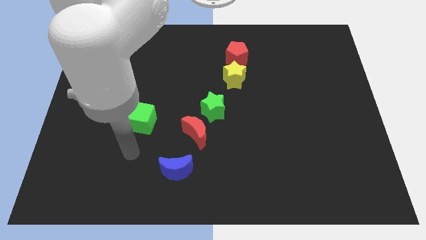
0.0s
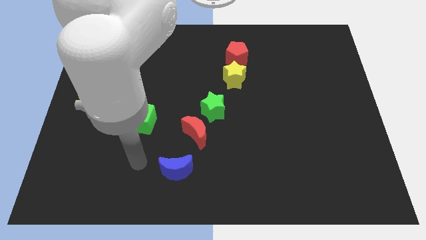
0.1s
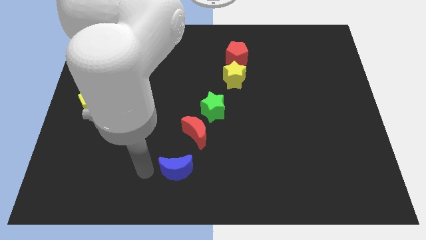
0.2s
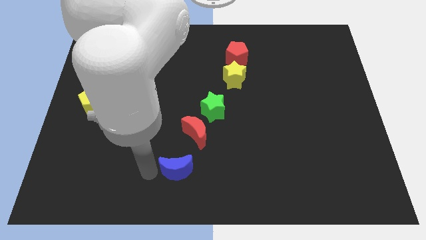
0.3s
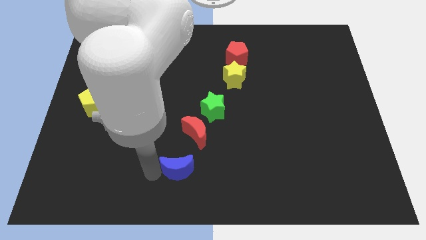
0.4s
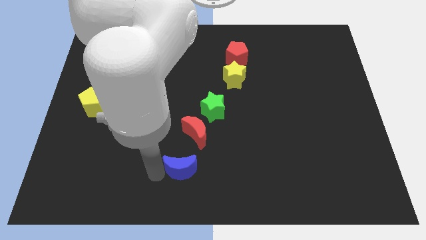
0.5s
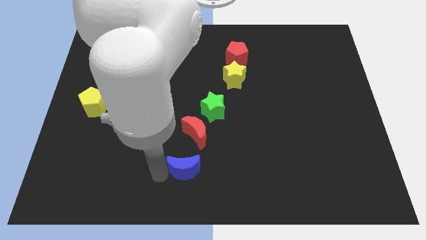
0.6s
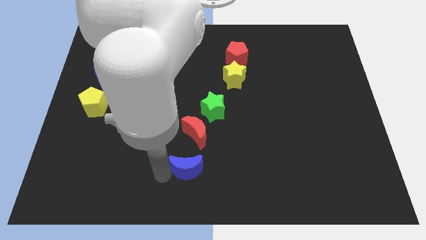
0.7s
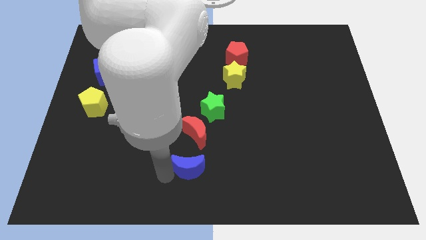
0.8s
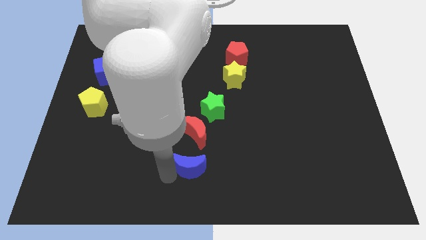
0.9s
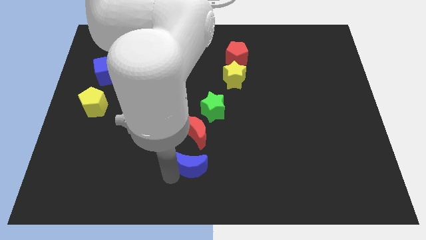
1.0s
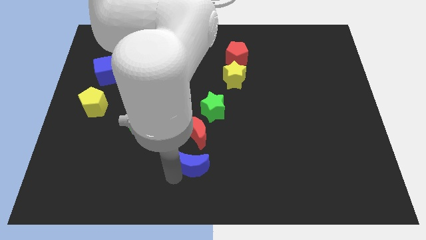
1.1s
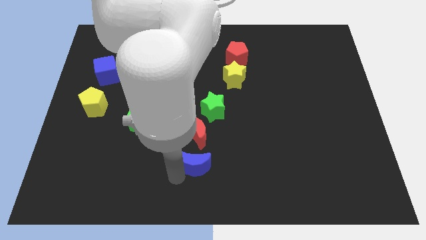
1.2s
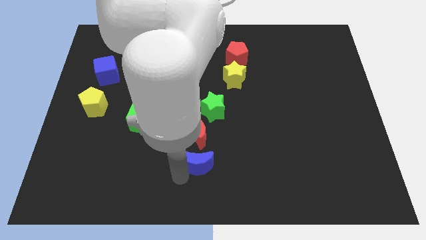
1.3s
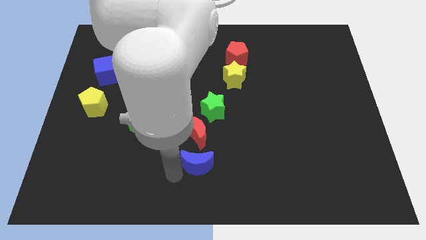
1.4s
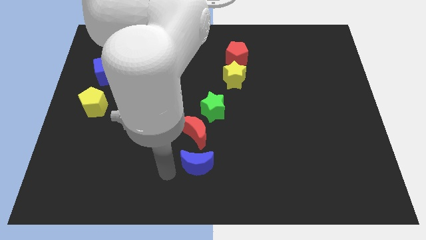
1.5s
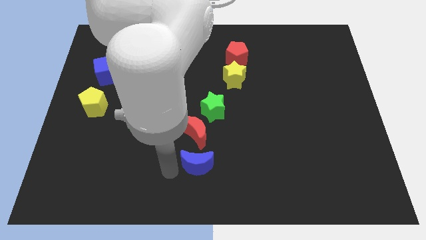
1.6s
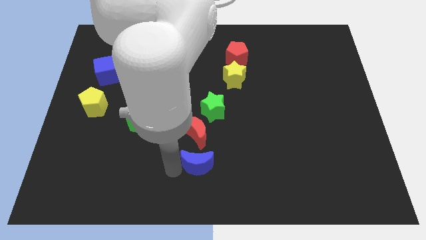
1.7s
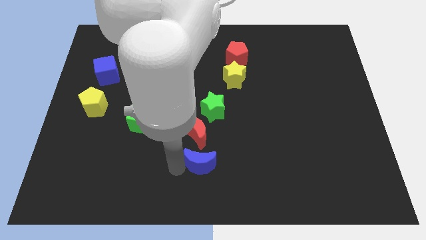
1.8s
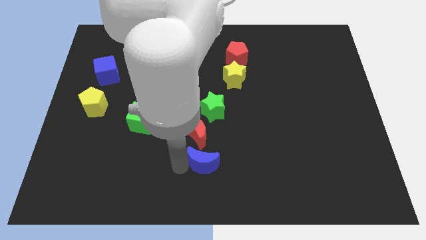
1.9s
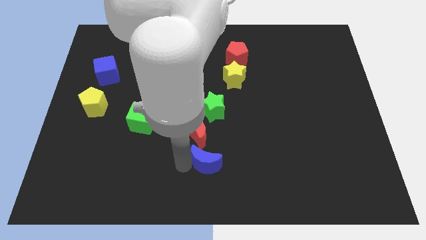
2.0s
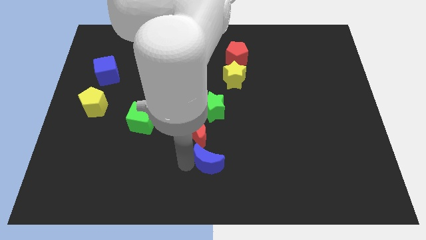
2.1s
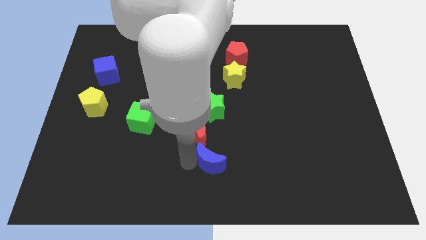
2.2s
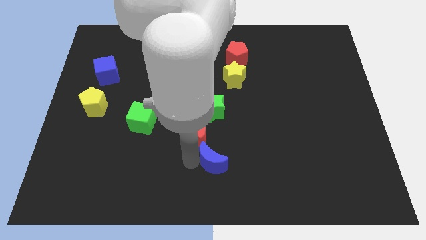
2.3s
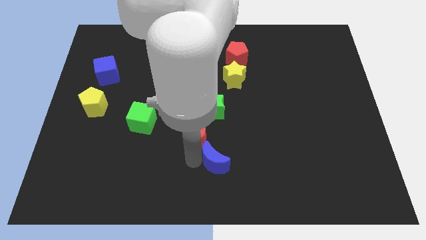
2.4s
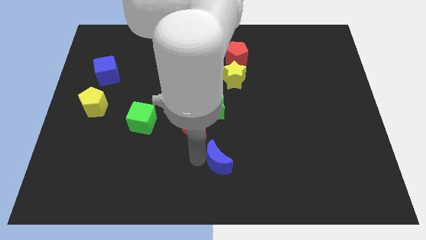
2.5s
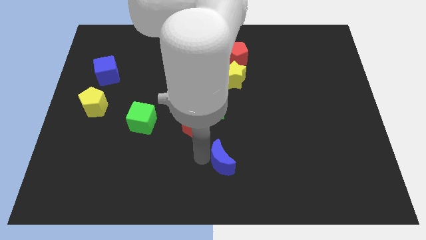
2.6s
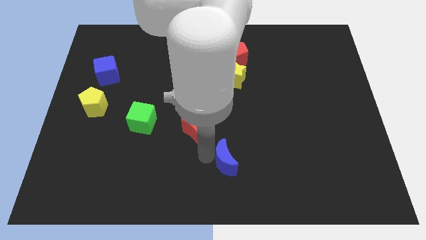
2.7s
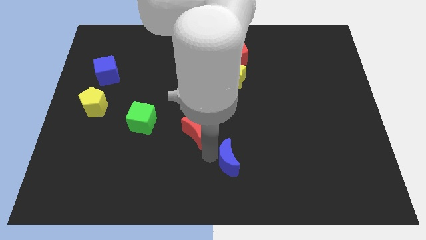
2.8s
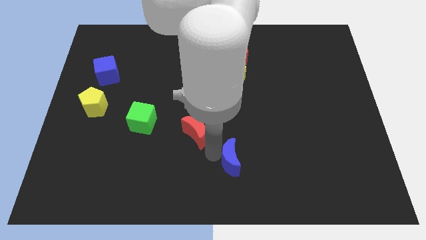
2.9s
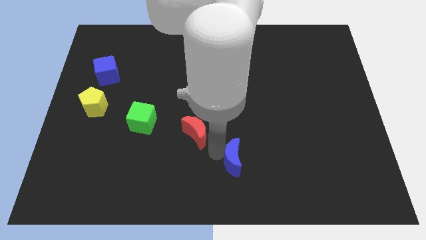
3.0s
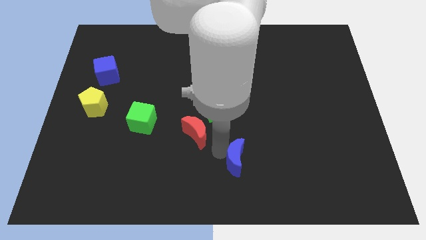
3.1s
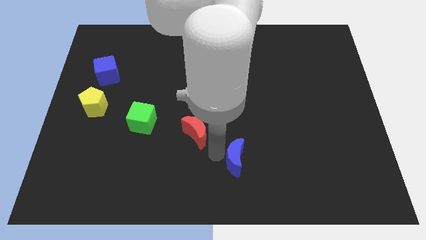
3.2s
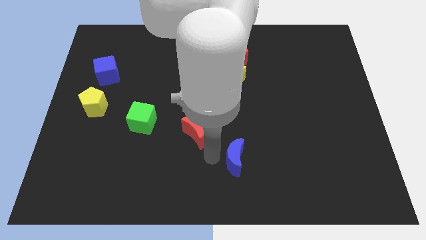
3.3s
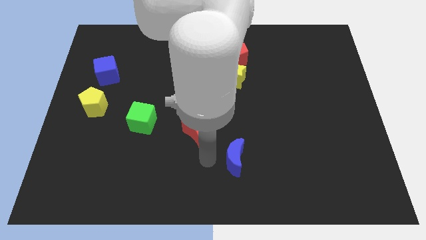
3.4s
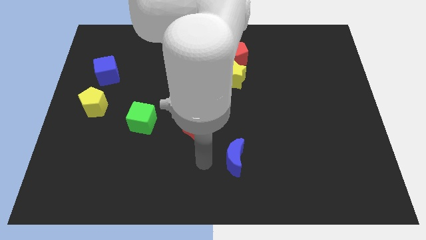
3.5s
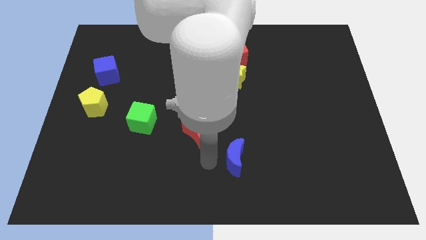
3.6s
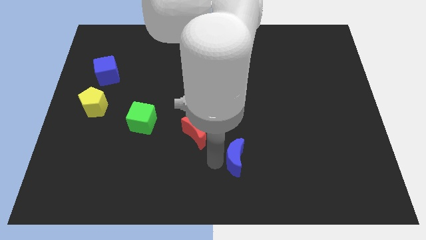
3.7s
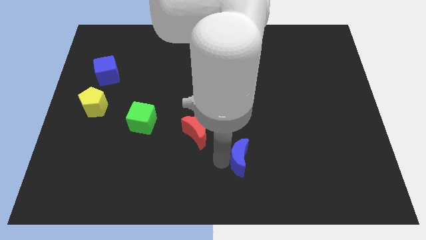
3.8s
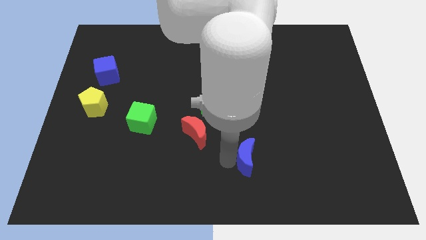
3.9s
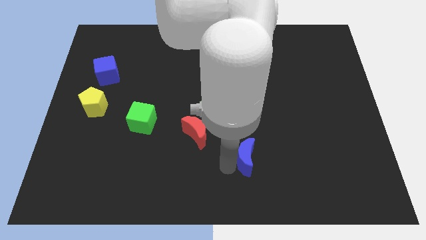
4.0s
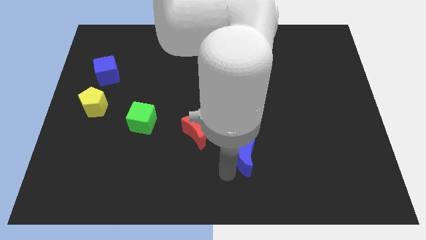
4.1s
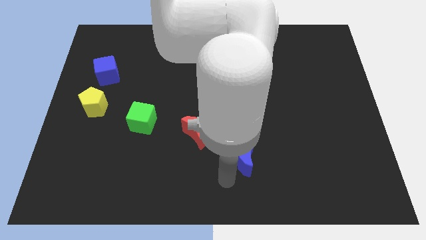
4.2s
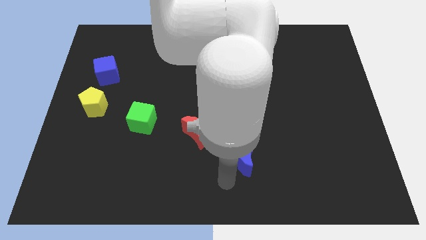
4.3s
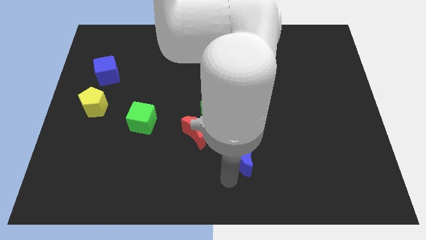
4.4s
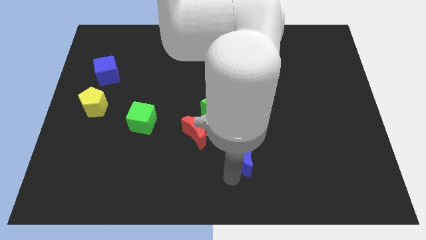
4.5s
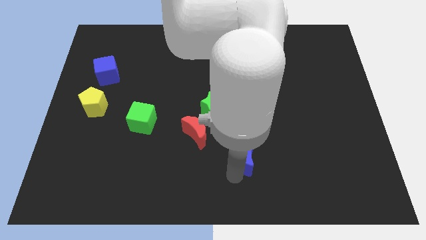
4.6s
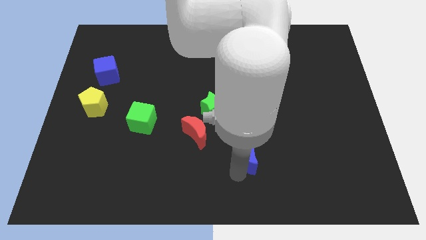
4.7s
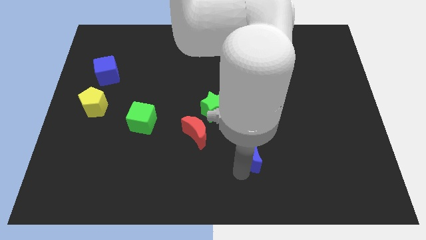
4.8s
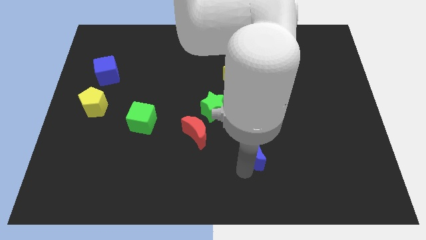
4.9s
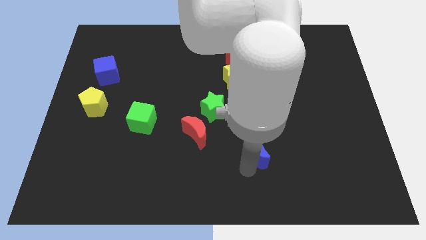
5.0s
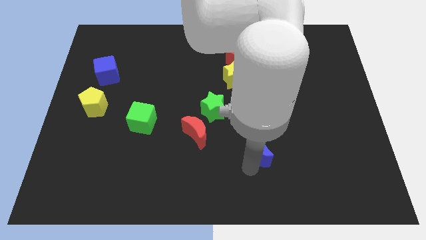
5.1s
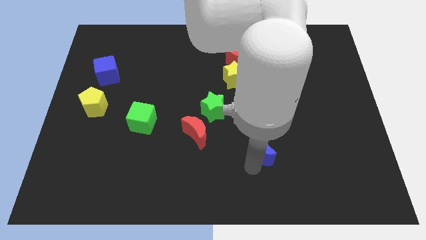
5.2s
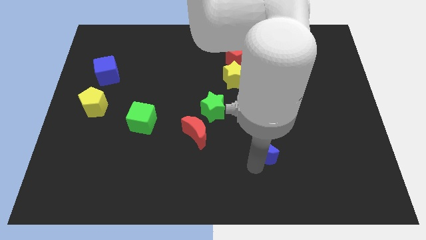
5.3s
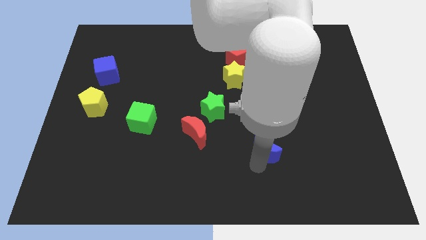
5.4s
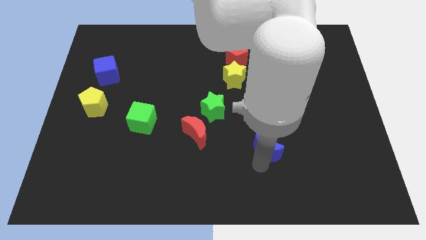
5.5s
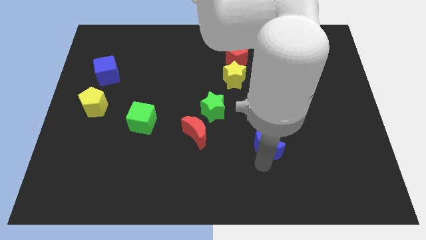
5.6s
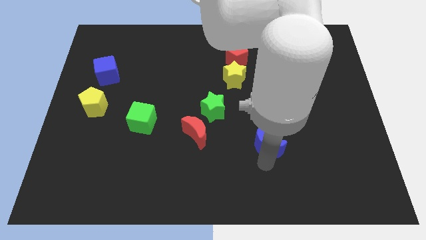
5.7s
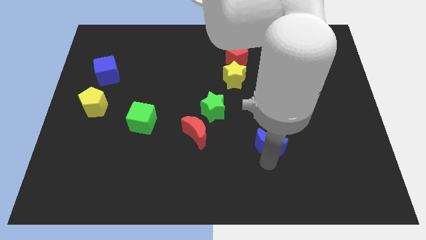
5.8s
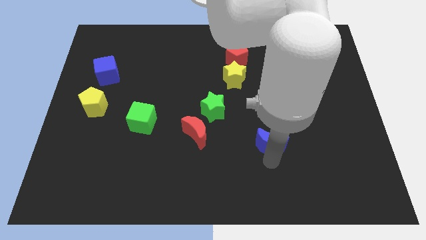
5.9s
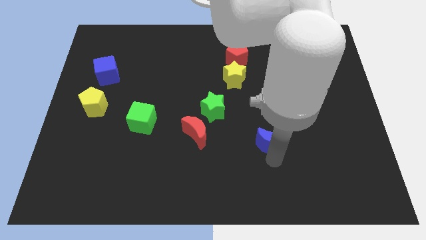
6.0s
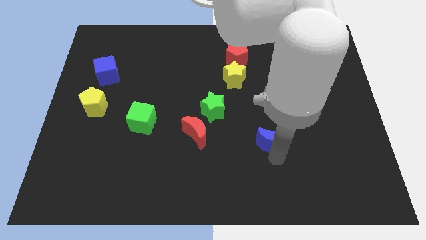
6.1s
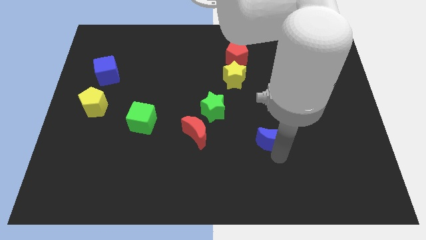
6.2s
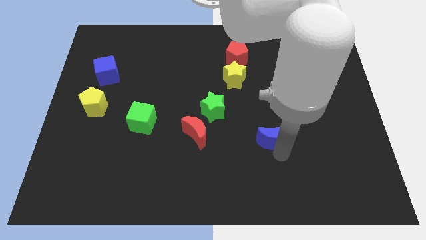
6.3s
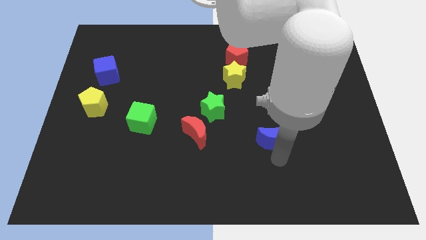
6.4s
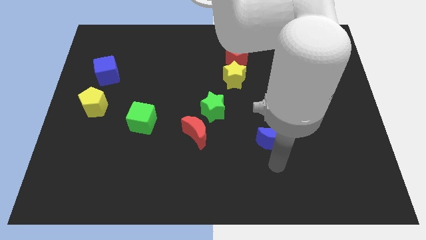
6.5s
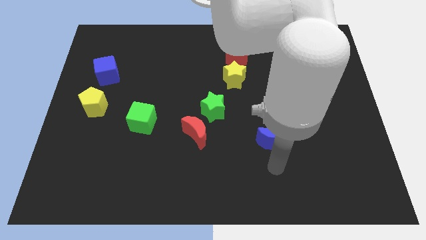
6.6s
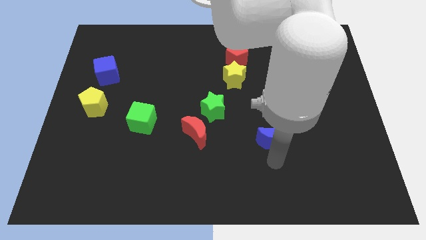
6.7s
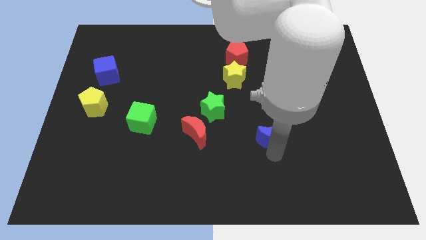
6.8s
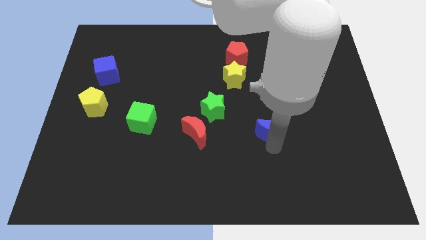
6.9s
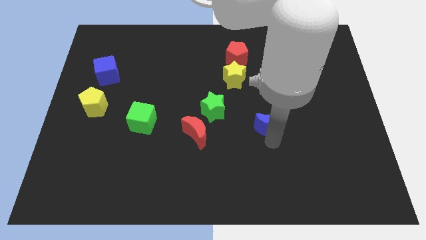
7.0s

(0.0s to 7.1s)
move the blue moon upwards and to the right diagonally

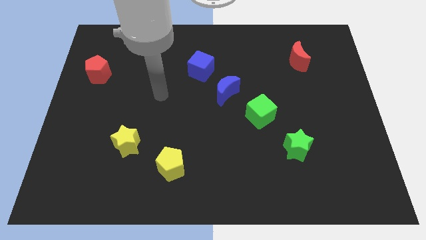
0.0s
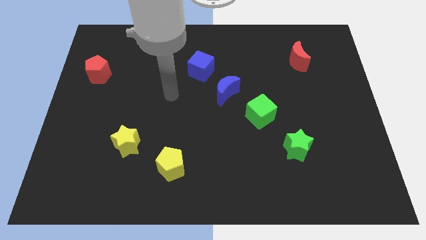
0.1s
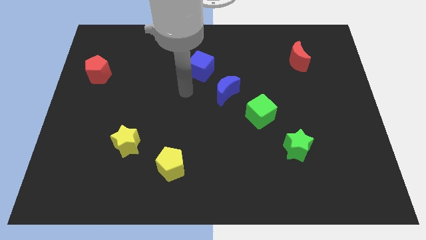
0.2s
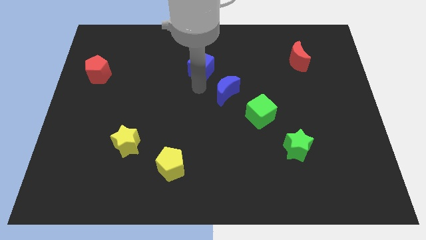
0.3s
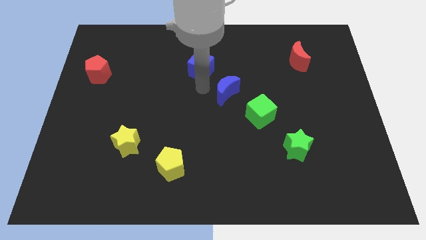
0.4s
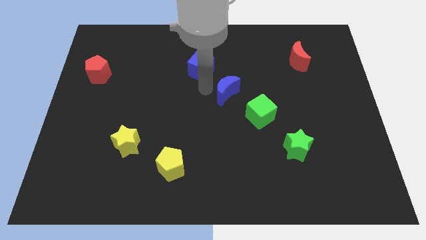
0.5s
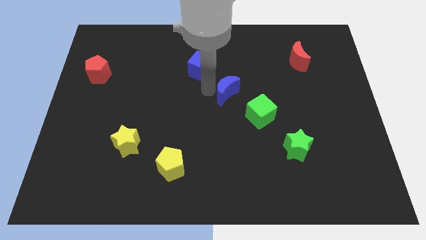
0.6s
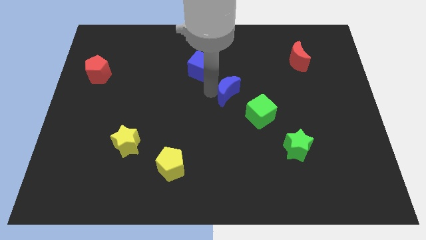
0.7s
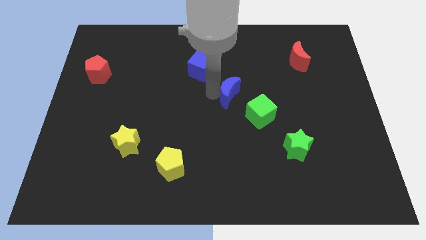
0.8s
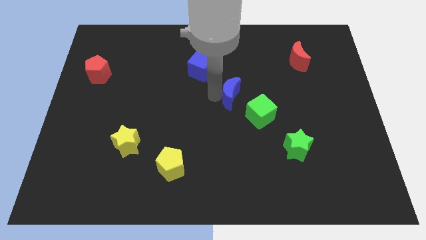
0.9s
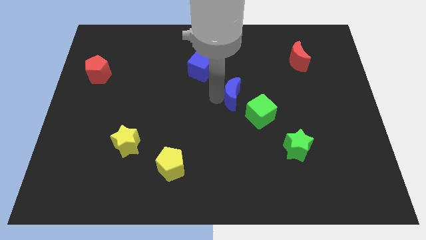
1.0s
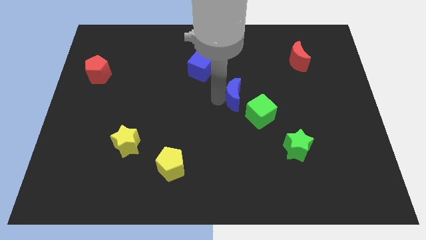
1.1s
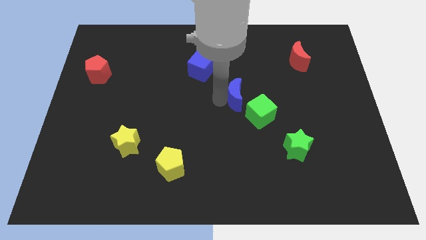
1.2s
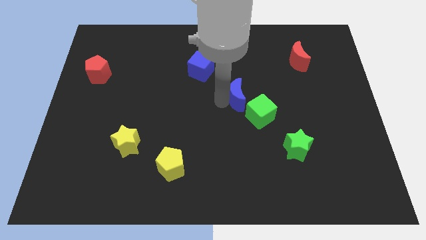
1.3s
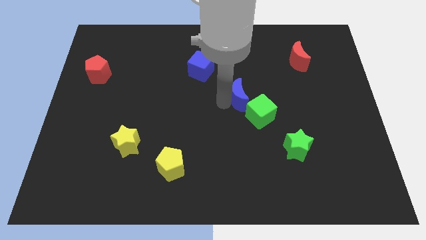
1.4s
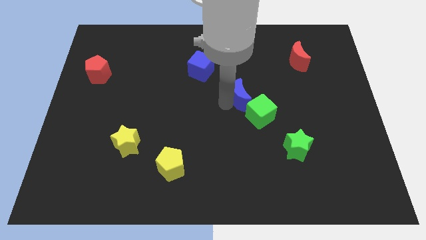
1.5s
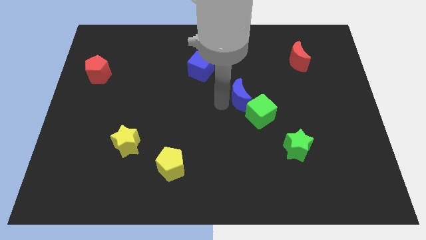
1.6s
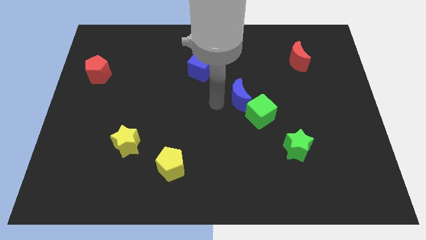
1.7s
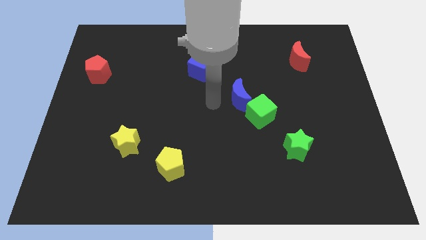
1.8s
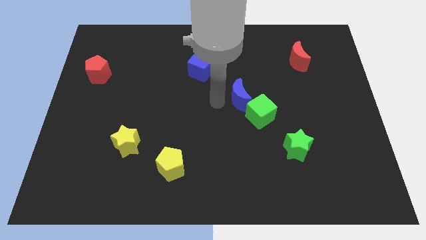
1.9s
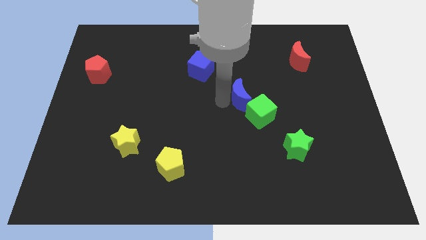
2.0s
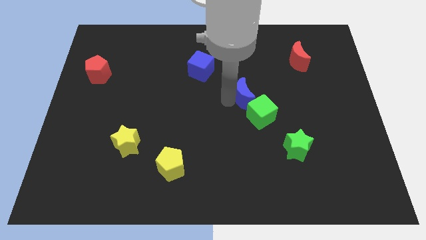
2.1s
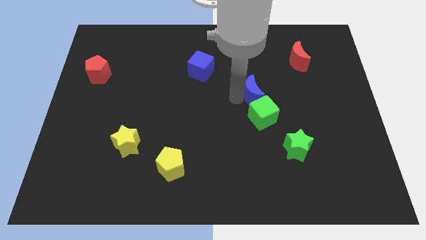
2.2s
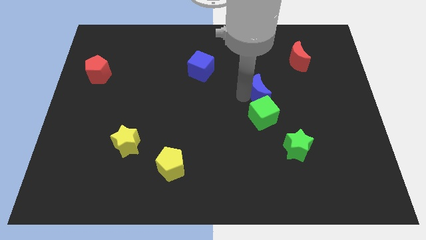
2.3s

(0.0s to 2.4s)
move the blue moon a little bit right
